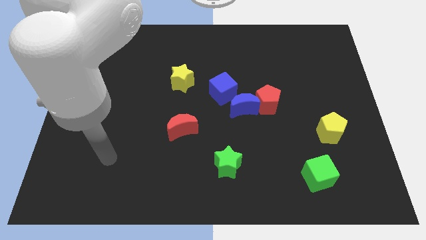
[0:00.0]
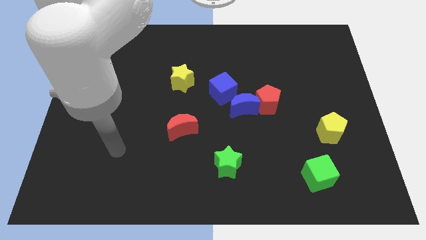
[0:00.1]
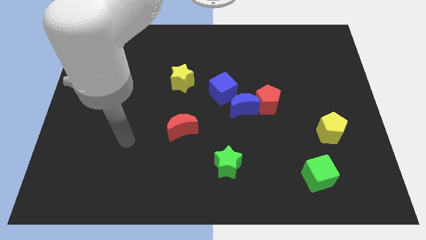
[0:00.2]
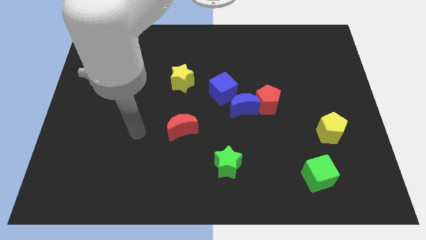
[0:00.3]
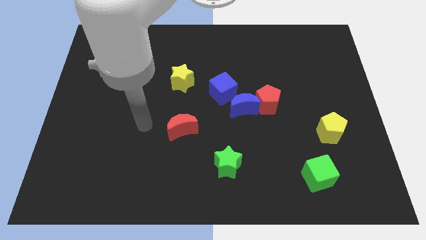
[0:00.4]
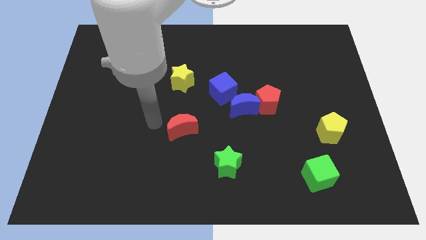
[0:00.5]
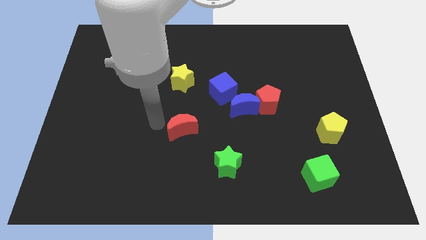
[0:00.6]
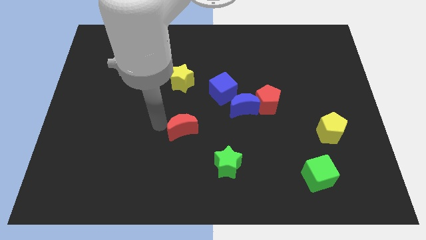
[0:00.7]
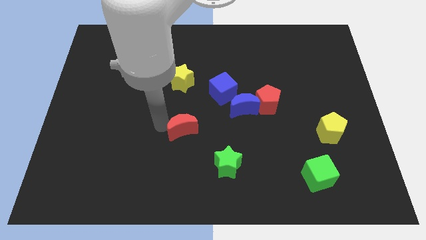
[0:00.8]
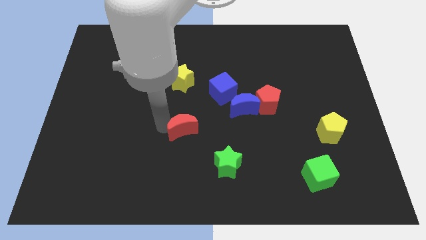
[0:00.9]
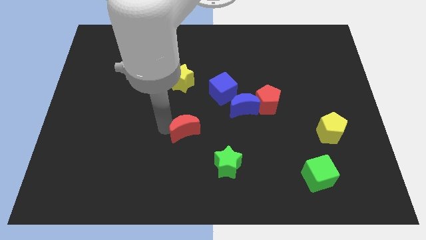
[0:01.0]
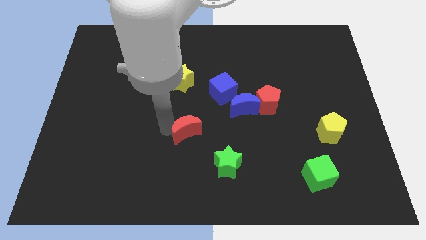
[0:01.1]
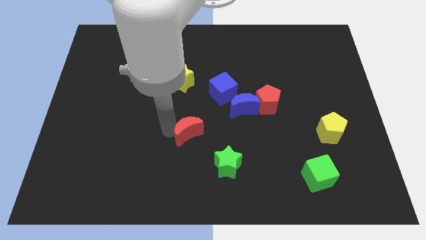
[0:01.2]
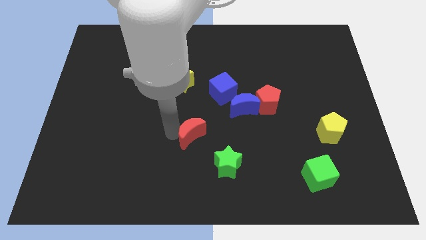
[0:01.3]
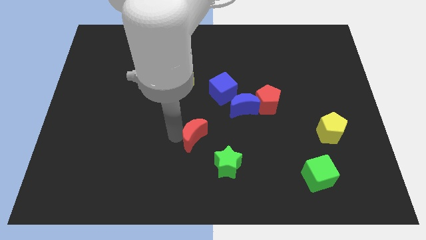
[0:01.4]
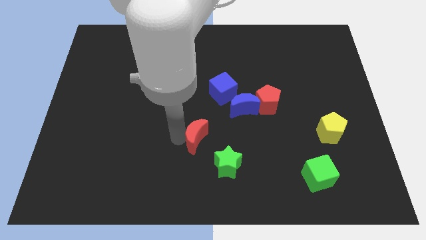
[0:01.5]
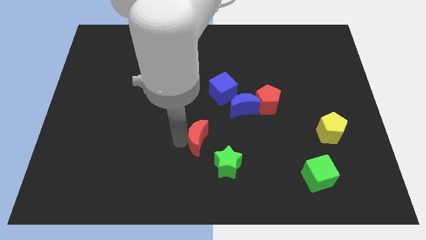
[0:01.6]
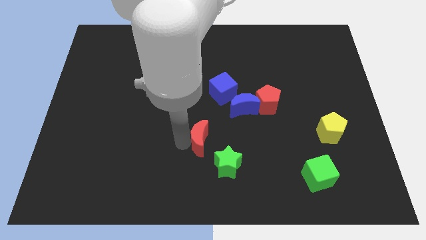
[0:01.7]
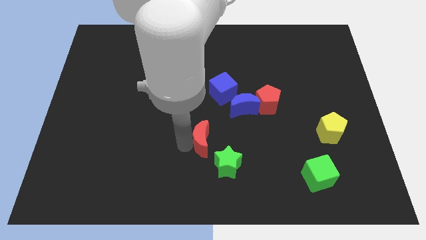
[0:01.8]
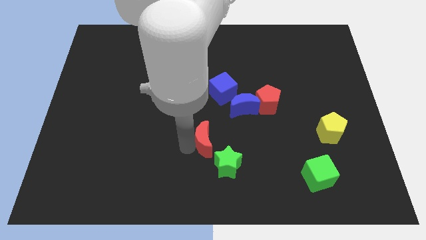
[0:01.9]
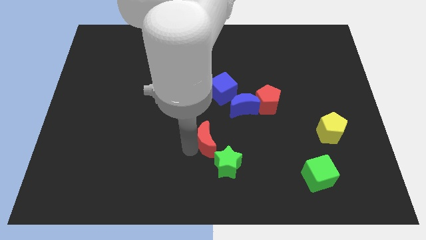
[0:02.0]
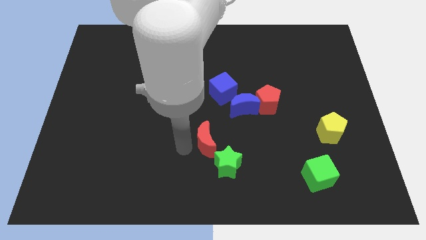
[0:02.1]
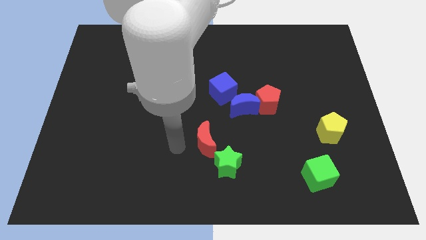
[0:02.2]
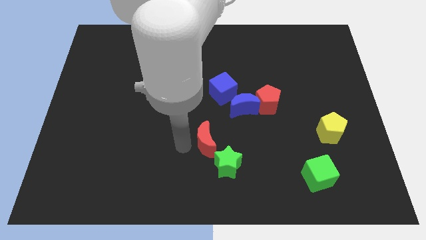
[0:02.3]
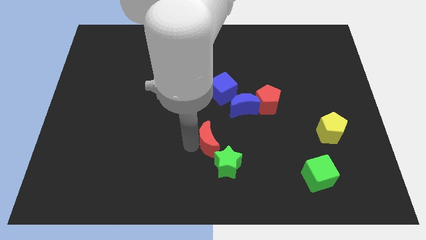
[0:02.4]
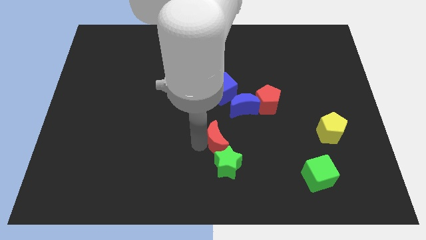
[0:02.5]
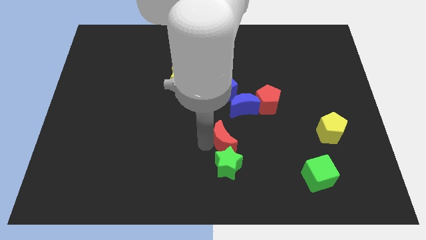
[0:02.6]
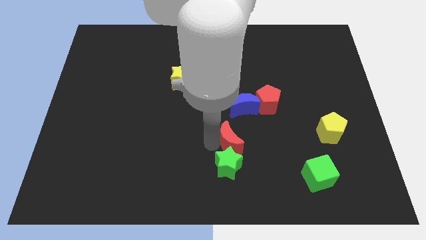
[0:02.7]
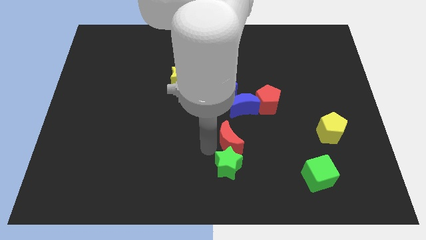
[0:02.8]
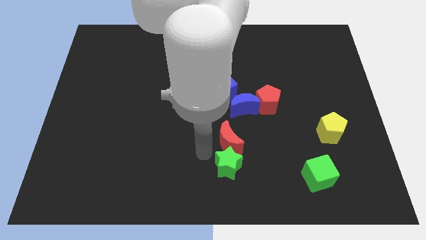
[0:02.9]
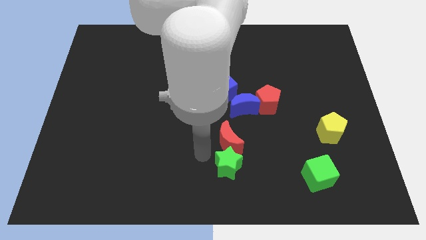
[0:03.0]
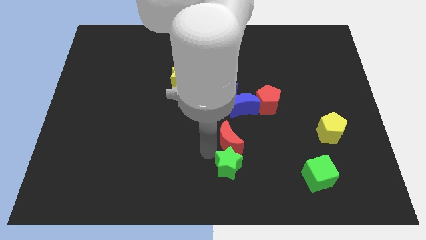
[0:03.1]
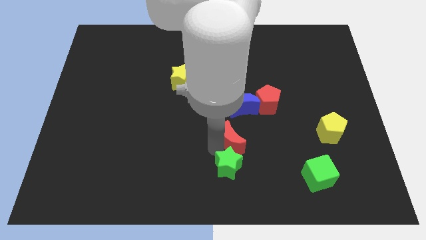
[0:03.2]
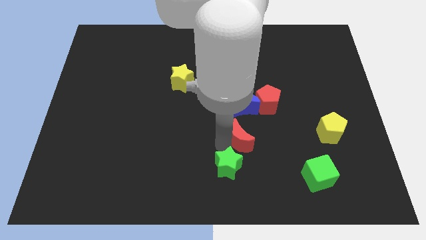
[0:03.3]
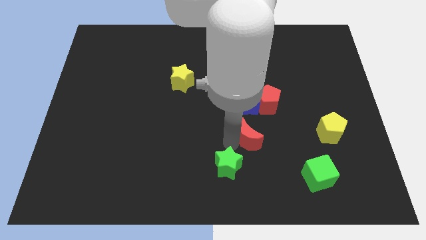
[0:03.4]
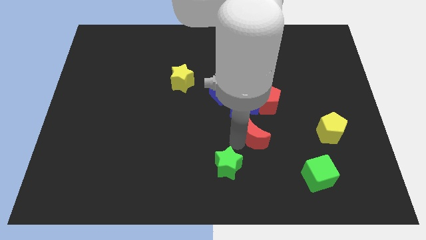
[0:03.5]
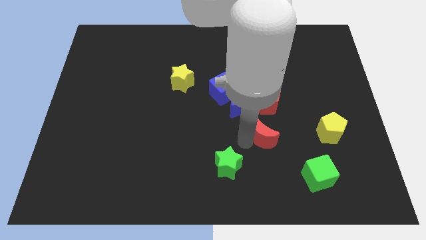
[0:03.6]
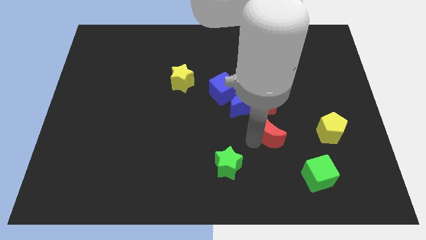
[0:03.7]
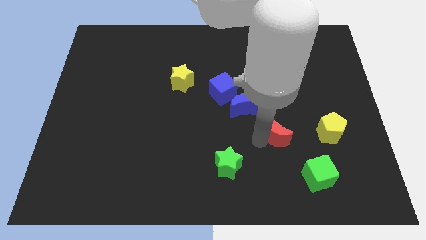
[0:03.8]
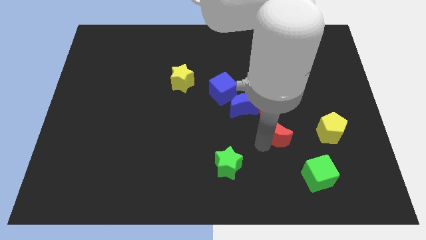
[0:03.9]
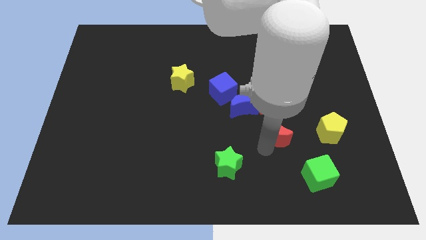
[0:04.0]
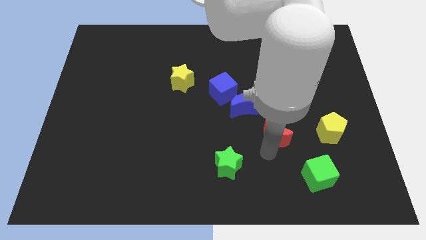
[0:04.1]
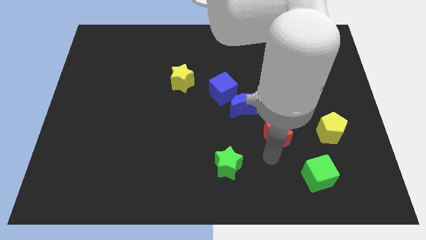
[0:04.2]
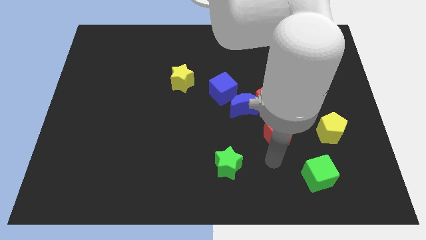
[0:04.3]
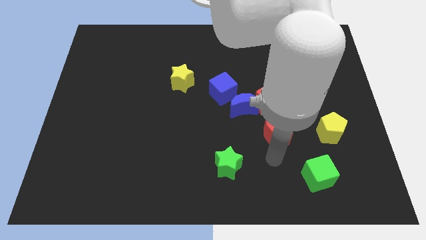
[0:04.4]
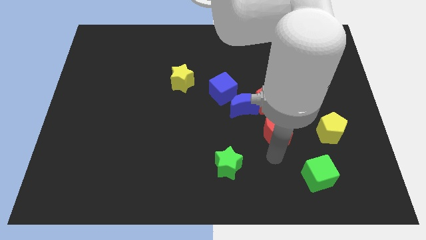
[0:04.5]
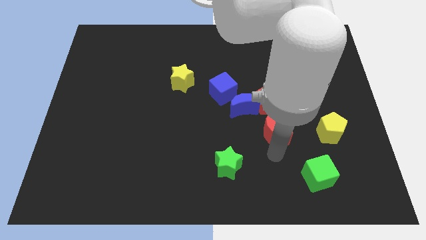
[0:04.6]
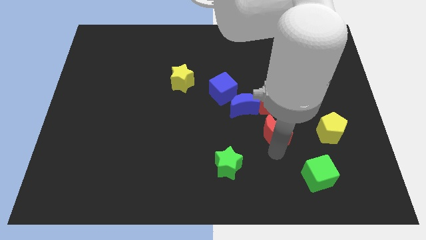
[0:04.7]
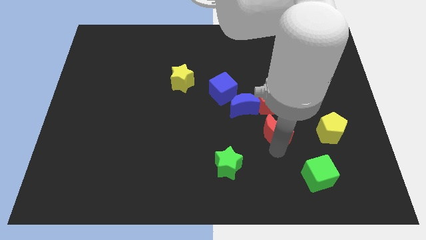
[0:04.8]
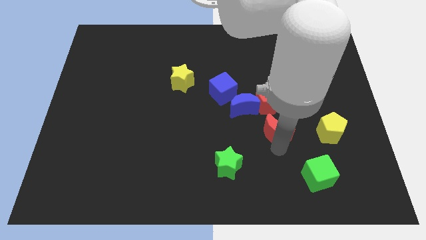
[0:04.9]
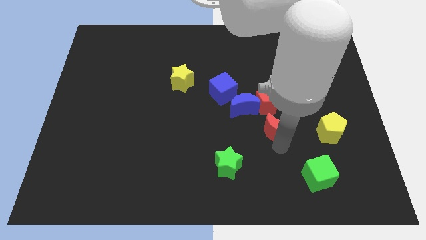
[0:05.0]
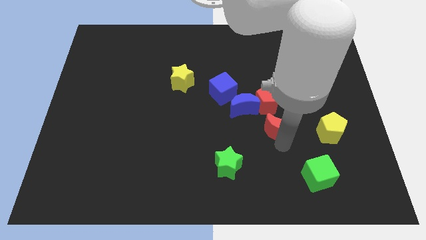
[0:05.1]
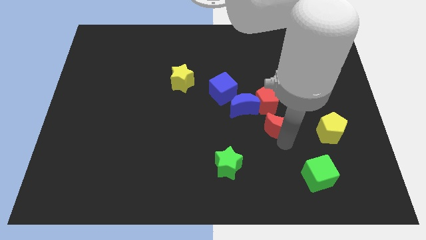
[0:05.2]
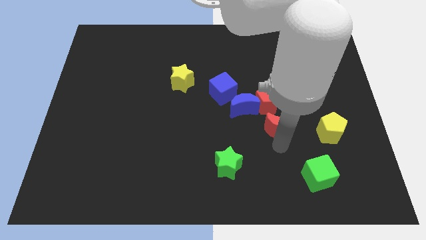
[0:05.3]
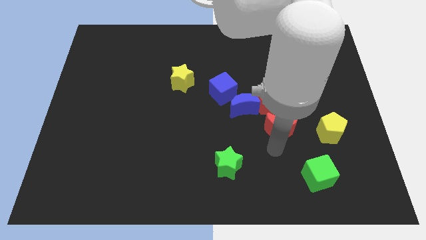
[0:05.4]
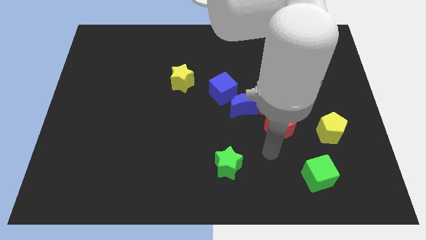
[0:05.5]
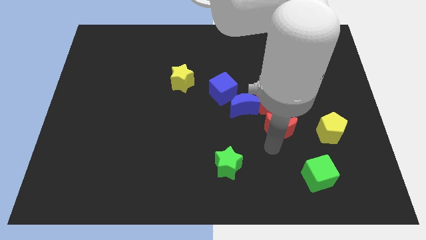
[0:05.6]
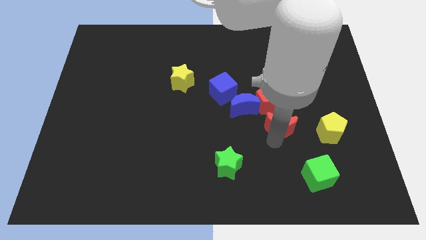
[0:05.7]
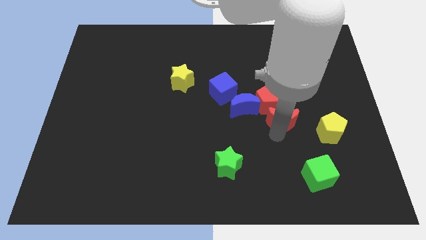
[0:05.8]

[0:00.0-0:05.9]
move the red moon to the right side of the blue moon
